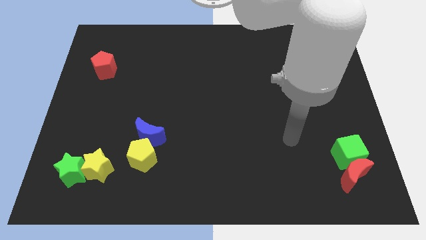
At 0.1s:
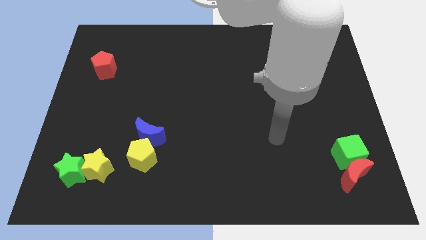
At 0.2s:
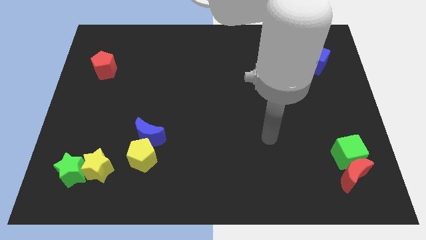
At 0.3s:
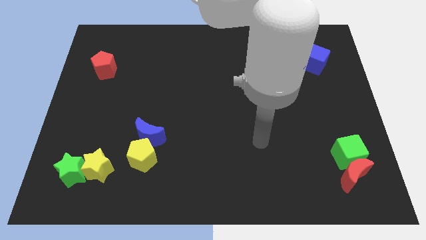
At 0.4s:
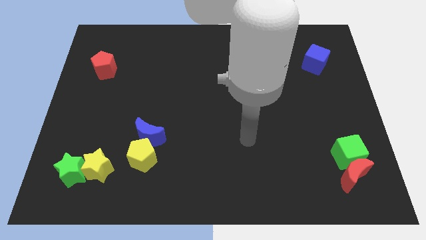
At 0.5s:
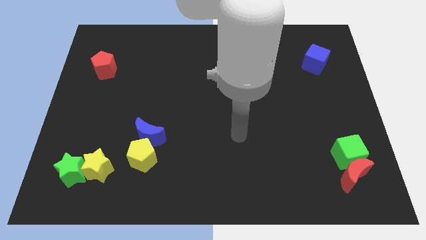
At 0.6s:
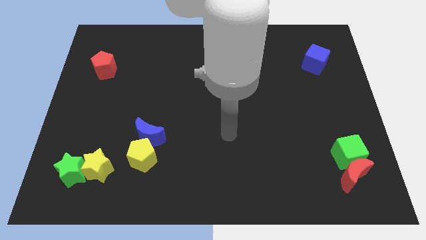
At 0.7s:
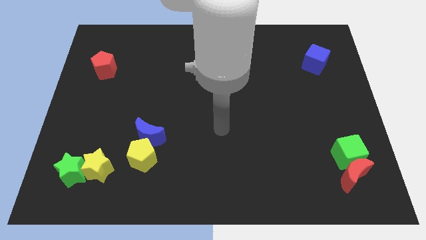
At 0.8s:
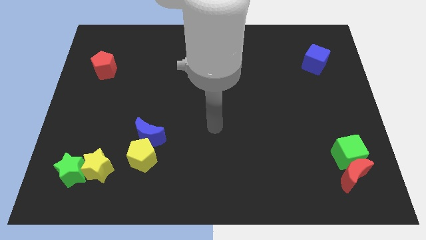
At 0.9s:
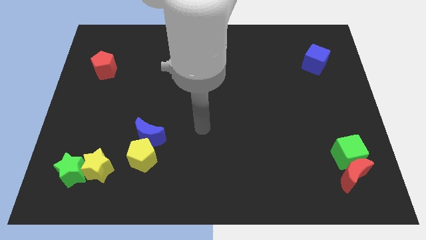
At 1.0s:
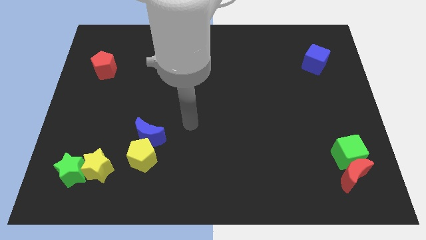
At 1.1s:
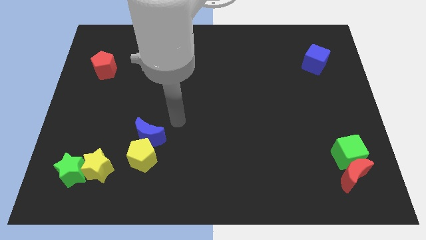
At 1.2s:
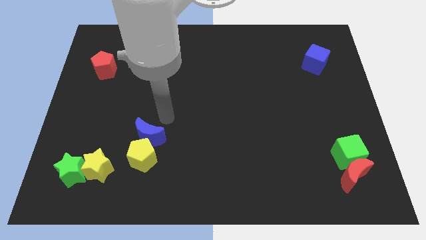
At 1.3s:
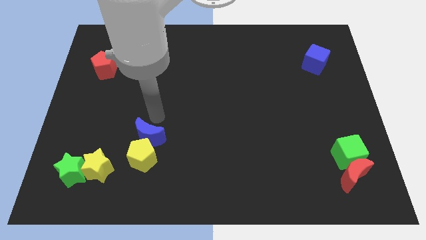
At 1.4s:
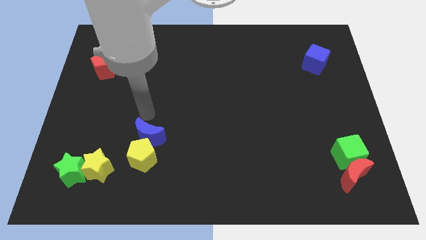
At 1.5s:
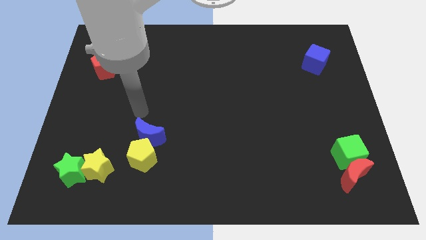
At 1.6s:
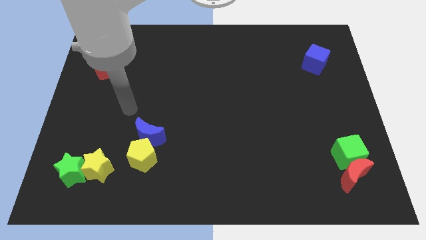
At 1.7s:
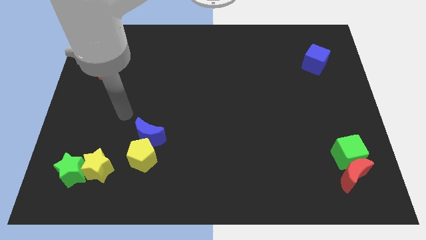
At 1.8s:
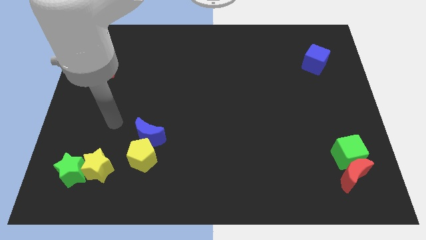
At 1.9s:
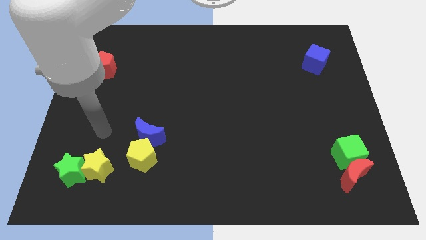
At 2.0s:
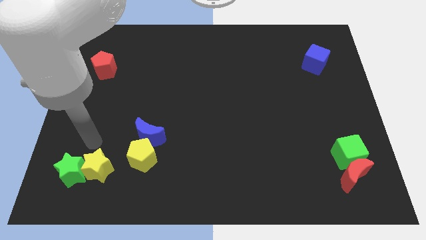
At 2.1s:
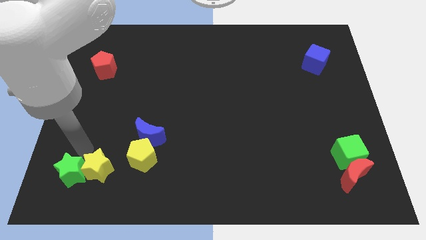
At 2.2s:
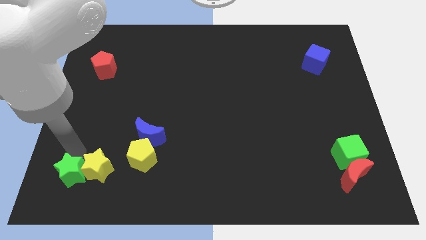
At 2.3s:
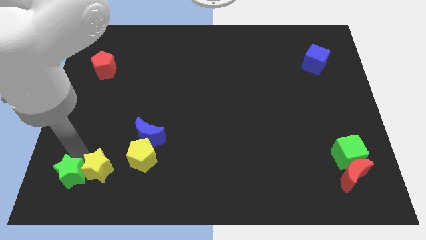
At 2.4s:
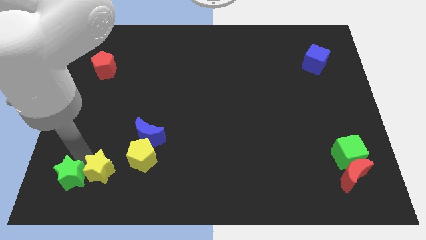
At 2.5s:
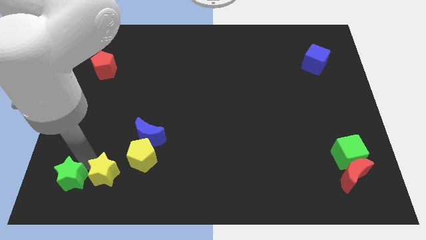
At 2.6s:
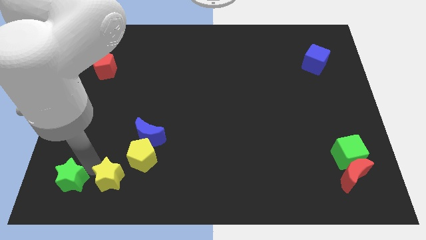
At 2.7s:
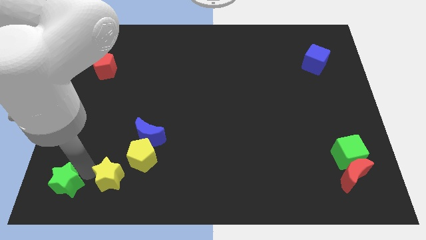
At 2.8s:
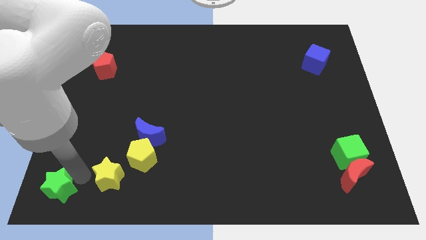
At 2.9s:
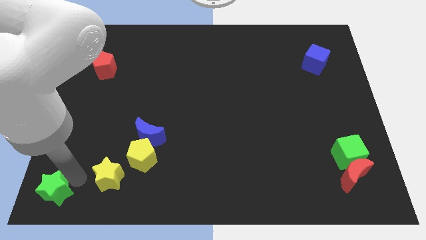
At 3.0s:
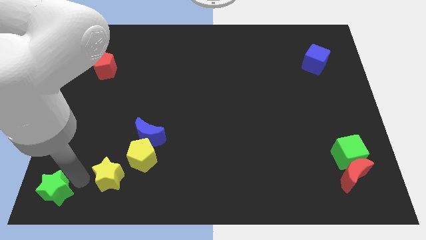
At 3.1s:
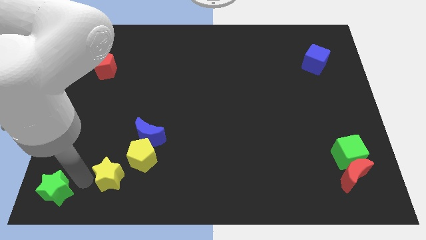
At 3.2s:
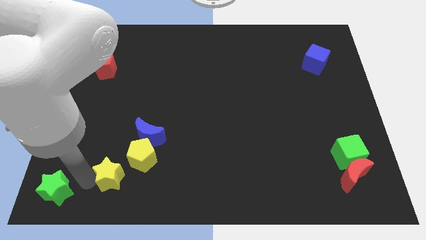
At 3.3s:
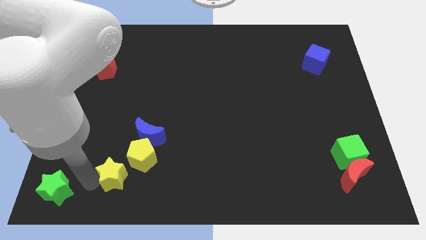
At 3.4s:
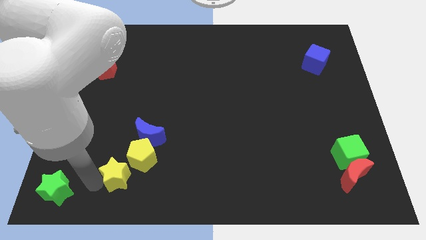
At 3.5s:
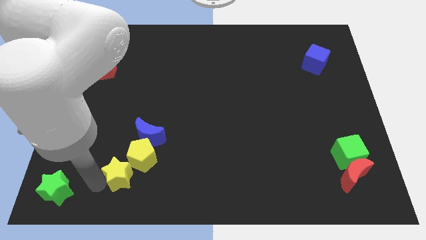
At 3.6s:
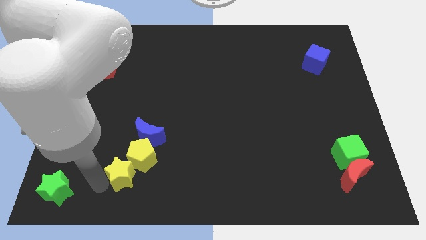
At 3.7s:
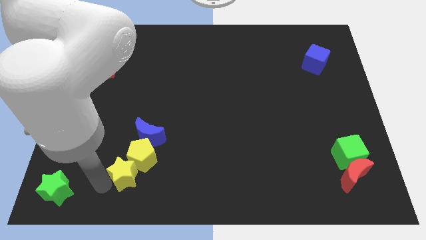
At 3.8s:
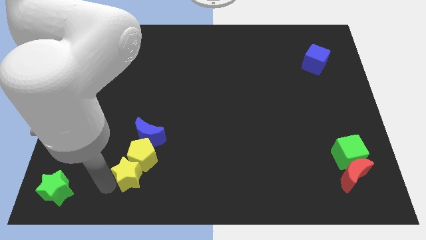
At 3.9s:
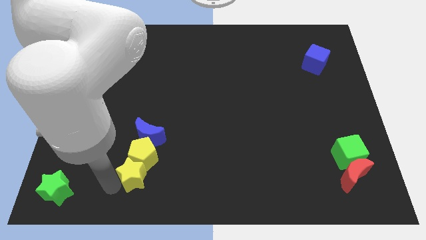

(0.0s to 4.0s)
slightly move the yellow star to the right

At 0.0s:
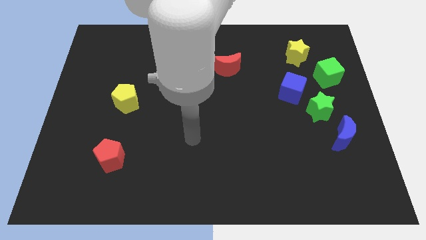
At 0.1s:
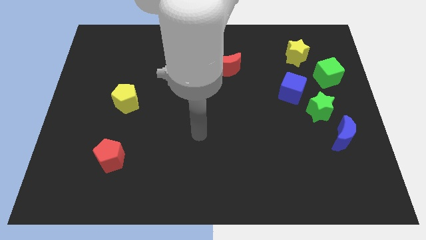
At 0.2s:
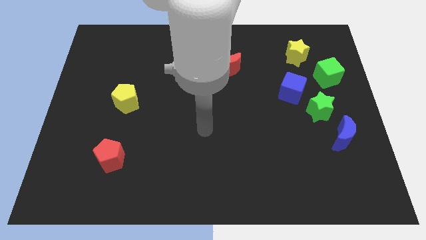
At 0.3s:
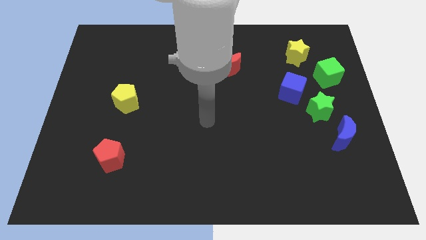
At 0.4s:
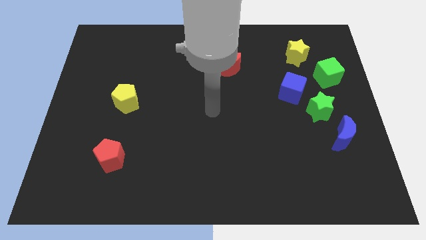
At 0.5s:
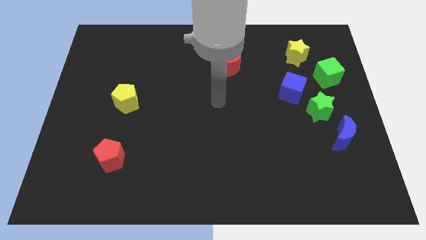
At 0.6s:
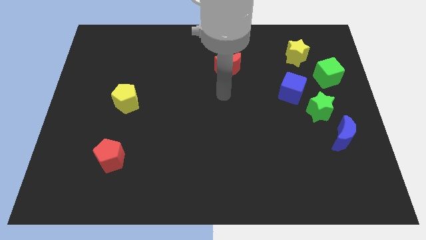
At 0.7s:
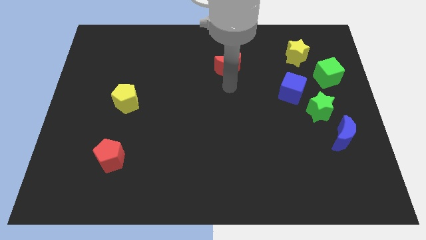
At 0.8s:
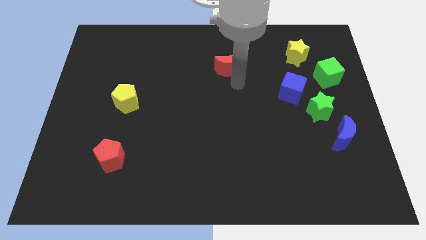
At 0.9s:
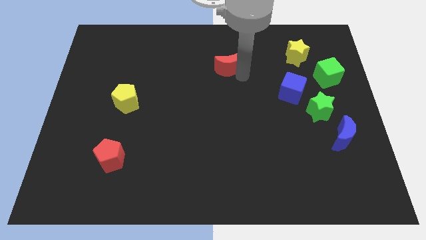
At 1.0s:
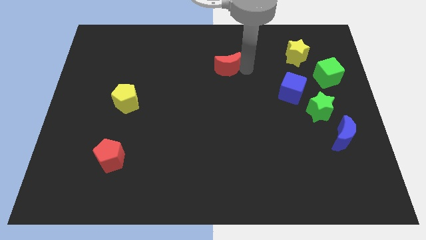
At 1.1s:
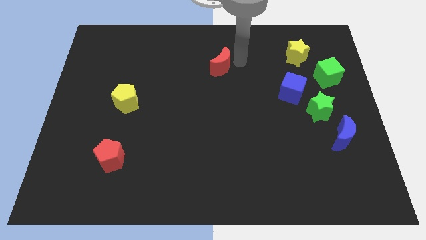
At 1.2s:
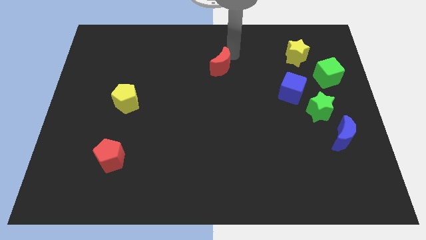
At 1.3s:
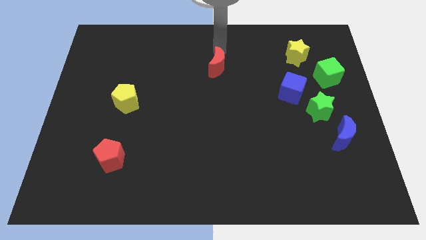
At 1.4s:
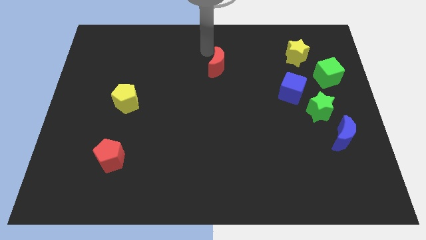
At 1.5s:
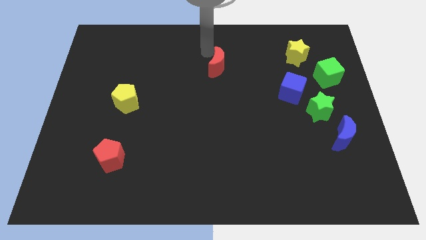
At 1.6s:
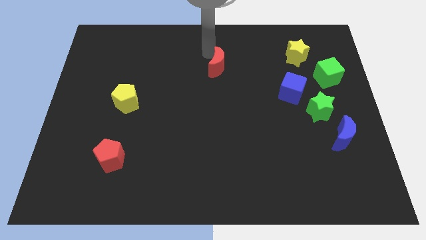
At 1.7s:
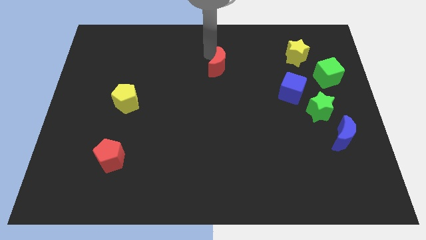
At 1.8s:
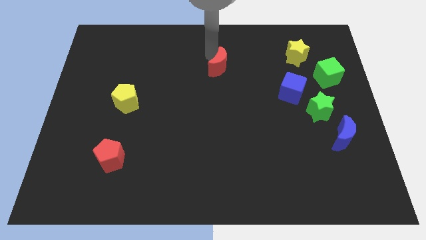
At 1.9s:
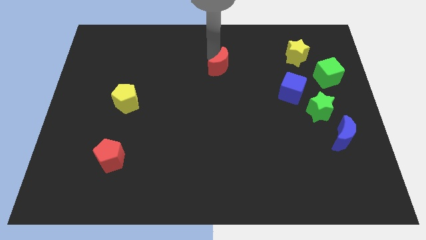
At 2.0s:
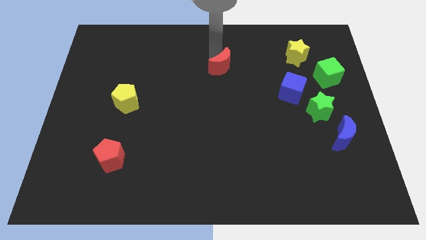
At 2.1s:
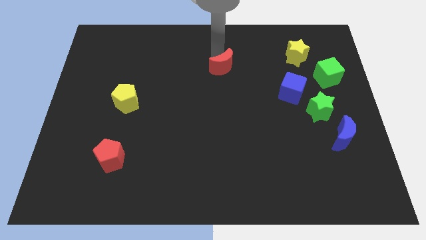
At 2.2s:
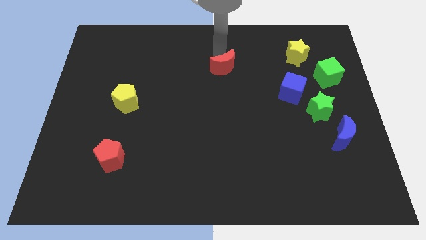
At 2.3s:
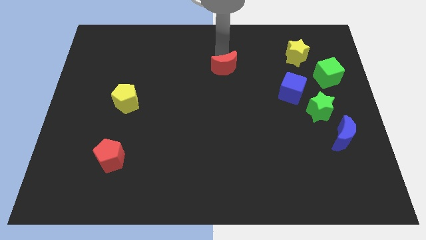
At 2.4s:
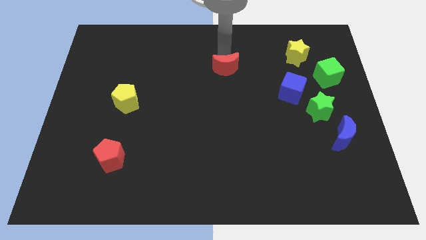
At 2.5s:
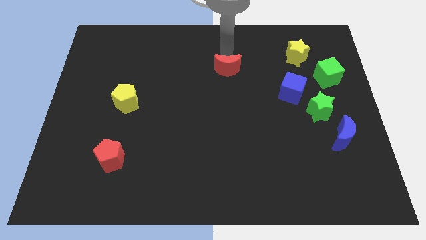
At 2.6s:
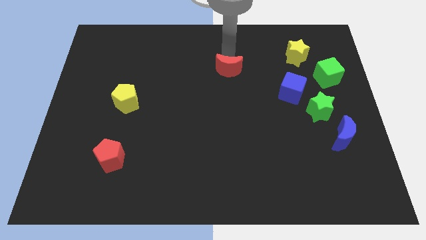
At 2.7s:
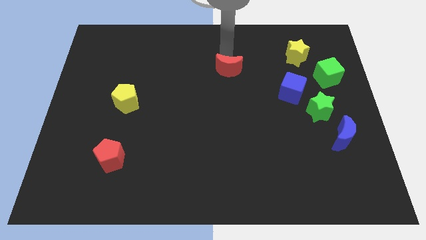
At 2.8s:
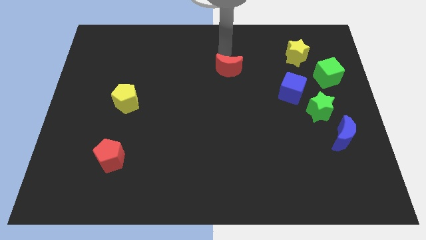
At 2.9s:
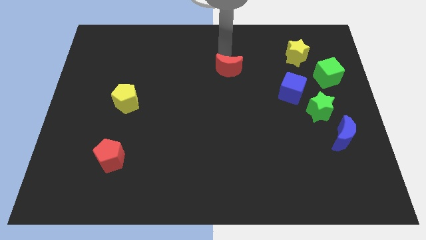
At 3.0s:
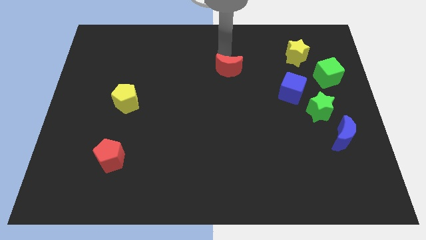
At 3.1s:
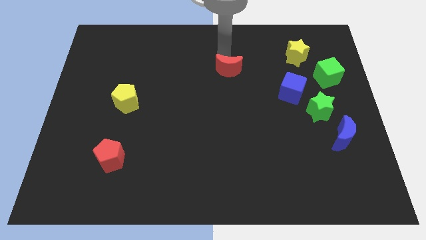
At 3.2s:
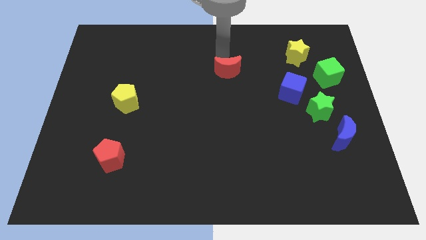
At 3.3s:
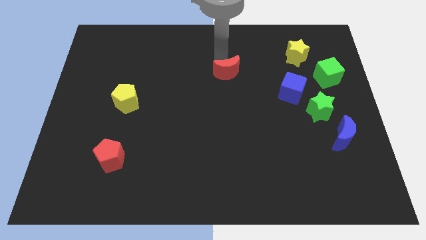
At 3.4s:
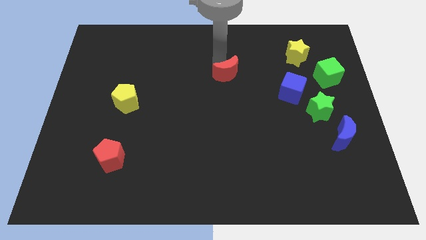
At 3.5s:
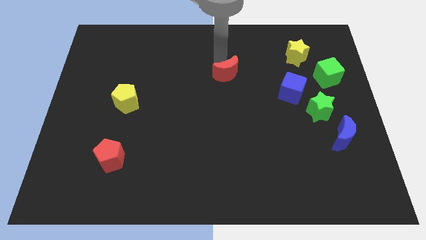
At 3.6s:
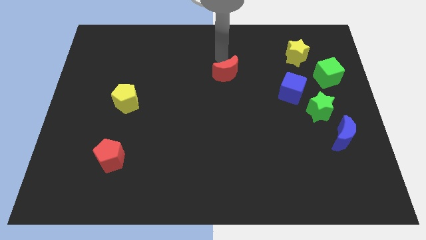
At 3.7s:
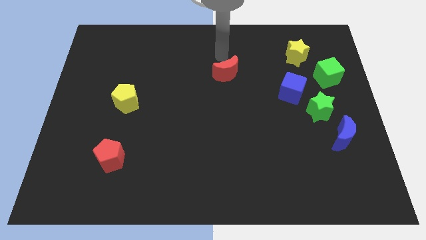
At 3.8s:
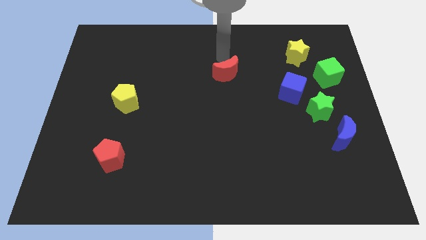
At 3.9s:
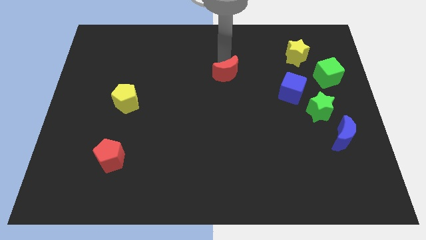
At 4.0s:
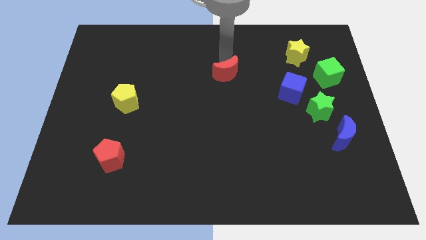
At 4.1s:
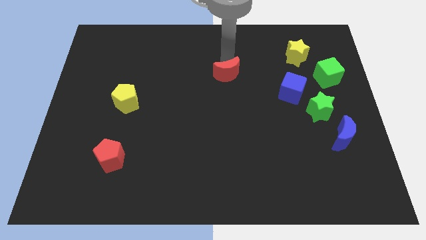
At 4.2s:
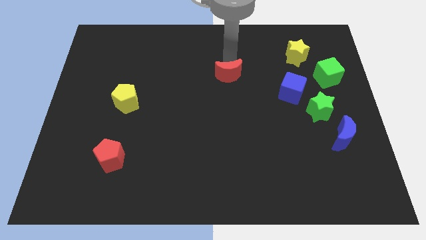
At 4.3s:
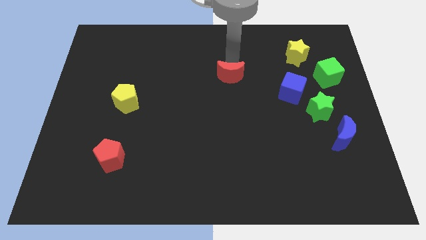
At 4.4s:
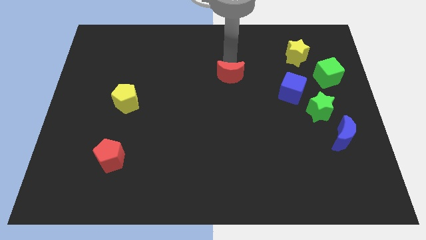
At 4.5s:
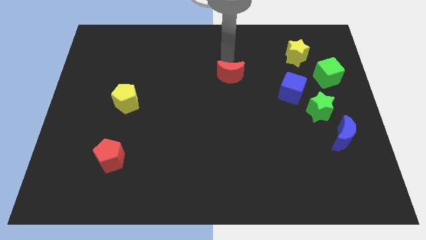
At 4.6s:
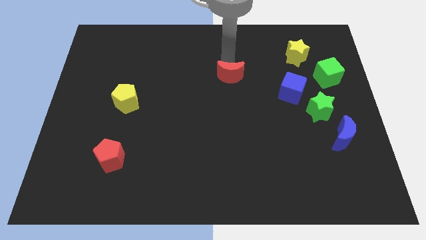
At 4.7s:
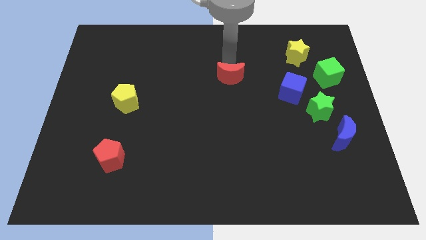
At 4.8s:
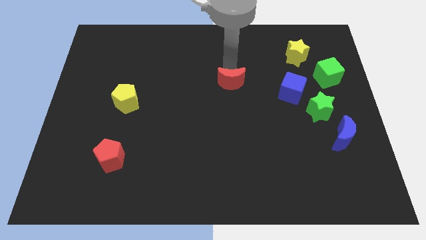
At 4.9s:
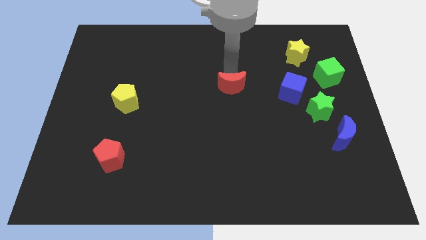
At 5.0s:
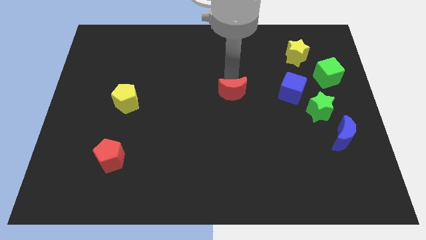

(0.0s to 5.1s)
move the red moon slightly downwards
